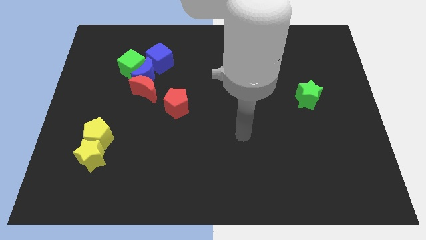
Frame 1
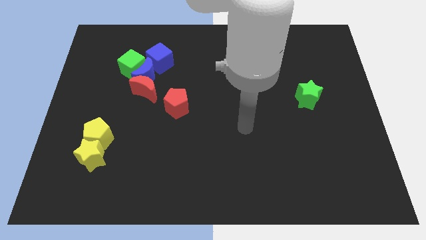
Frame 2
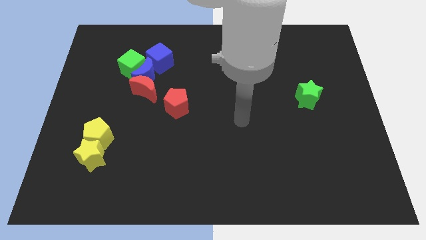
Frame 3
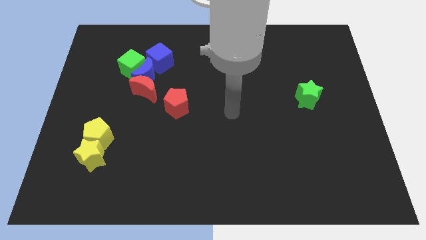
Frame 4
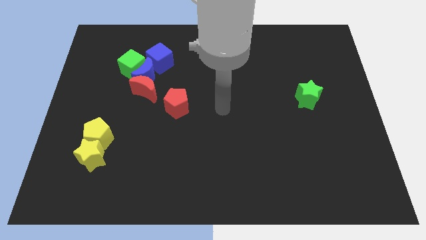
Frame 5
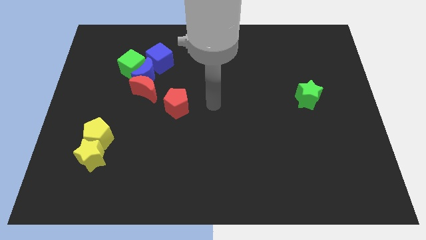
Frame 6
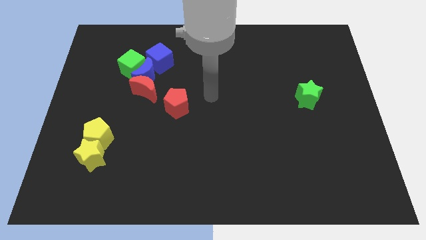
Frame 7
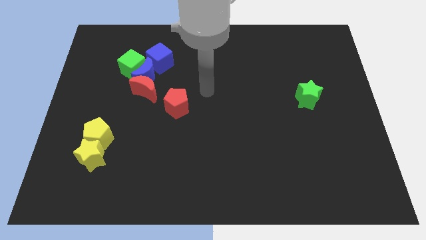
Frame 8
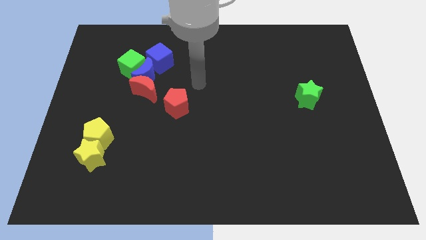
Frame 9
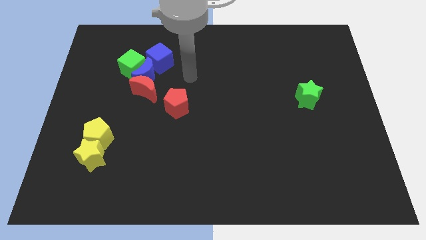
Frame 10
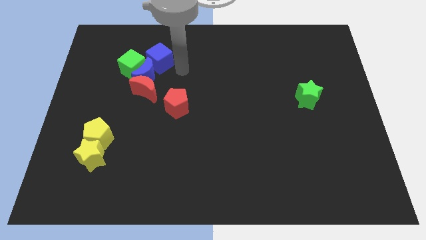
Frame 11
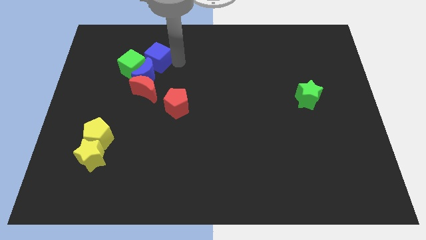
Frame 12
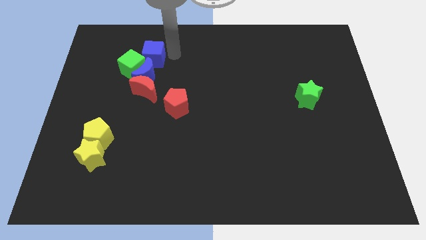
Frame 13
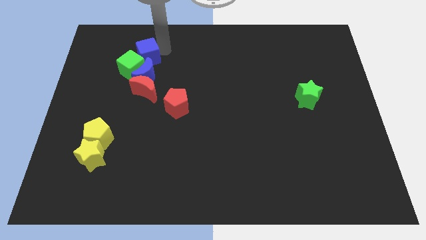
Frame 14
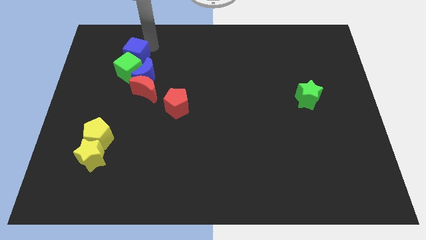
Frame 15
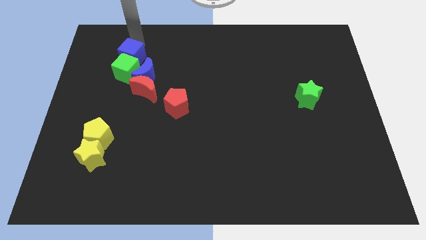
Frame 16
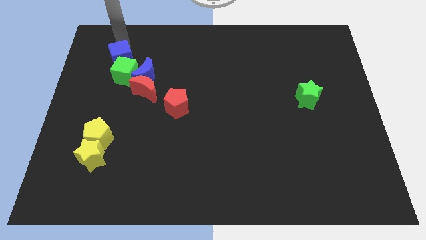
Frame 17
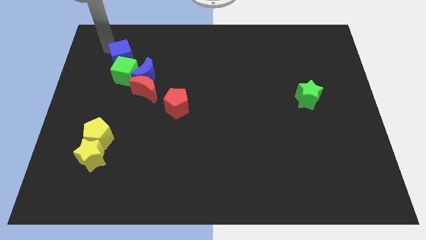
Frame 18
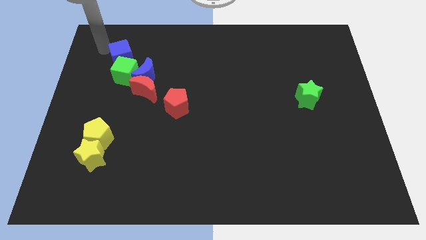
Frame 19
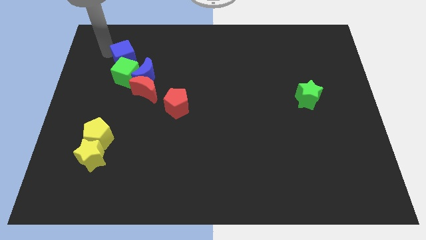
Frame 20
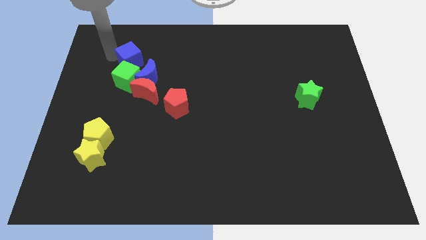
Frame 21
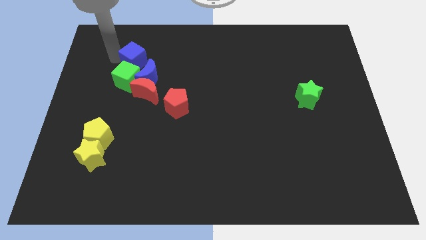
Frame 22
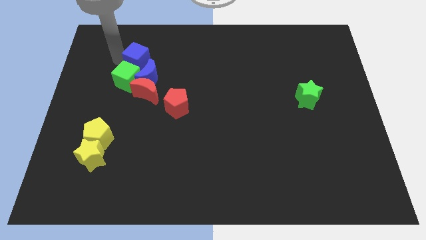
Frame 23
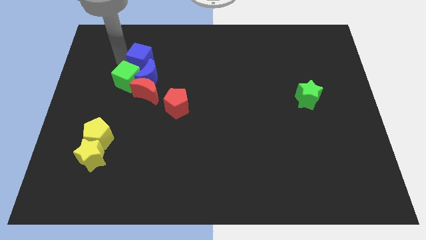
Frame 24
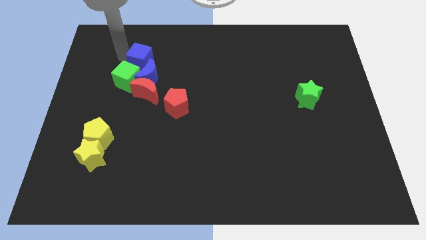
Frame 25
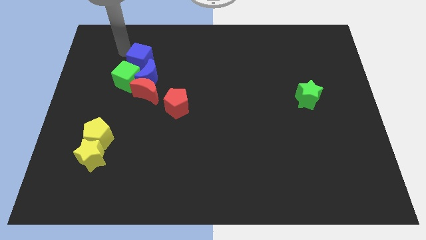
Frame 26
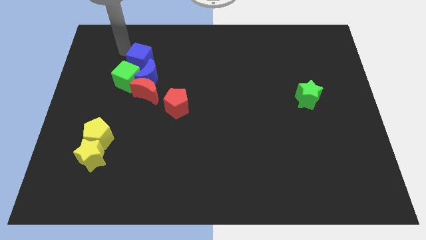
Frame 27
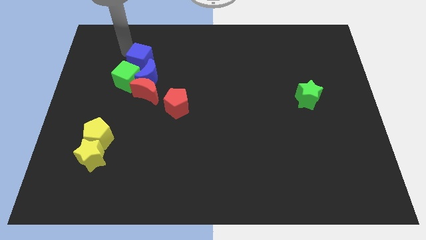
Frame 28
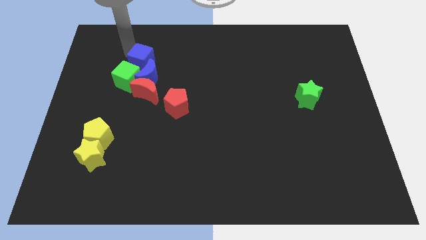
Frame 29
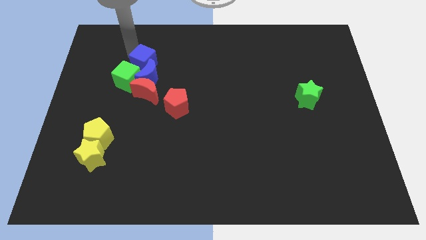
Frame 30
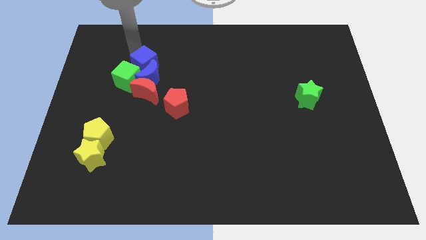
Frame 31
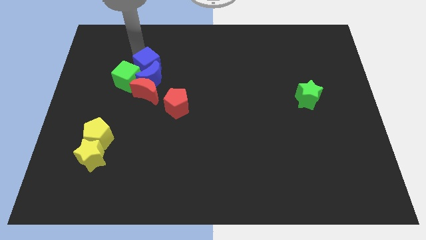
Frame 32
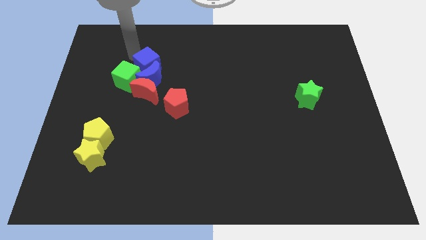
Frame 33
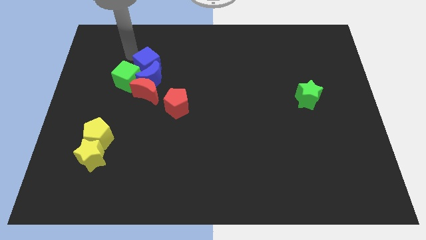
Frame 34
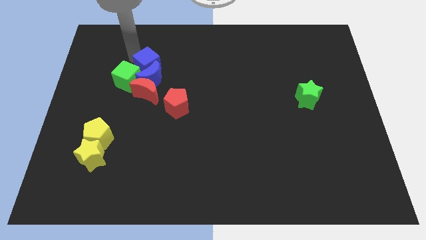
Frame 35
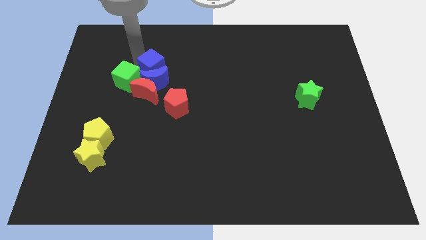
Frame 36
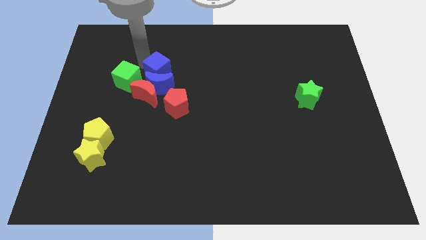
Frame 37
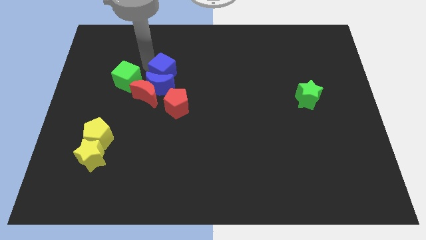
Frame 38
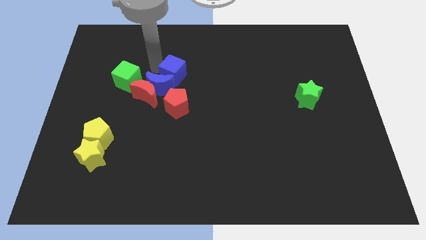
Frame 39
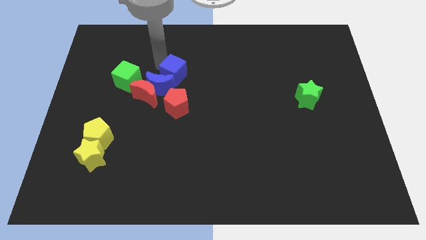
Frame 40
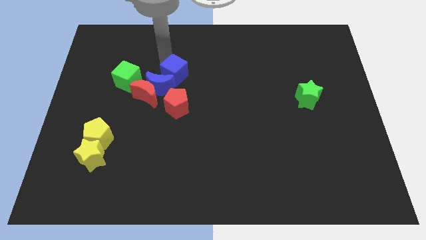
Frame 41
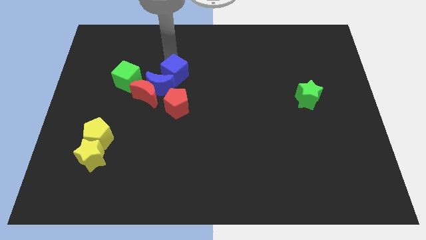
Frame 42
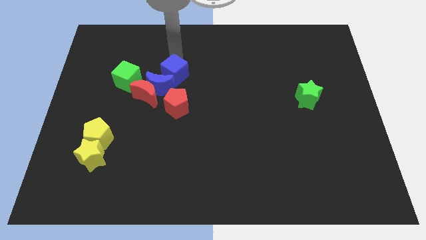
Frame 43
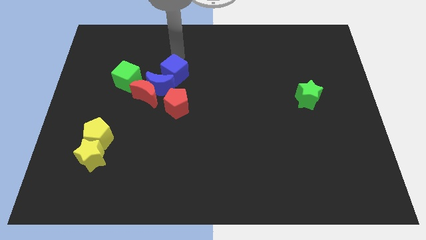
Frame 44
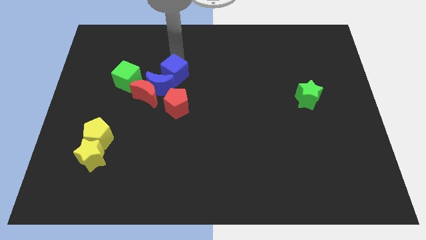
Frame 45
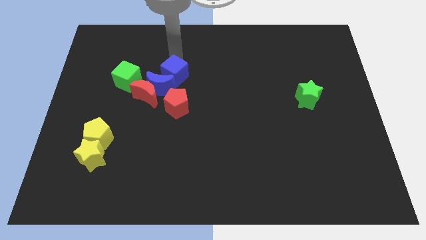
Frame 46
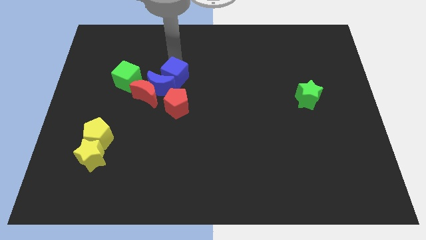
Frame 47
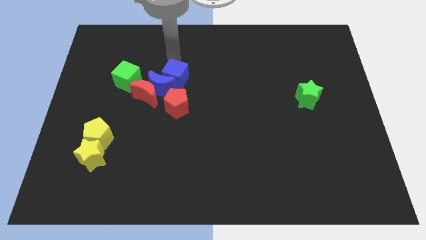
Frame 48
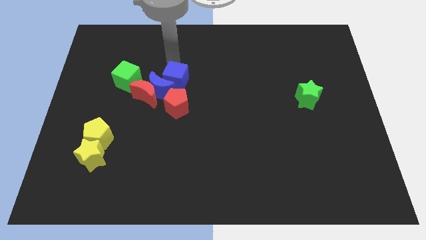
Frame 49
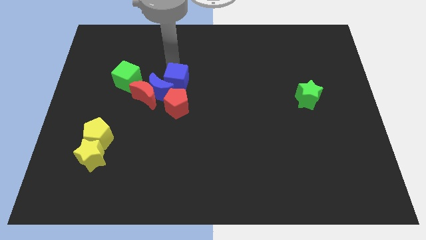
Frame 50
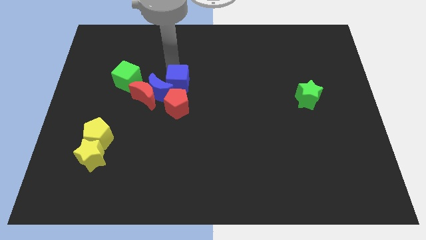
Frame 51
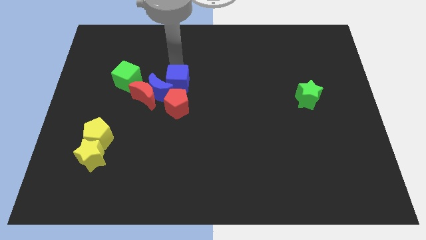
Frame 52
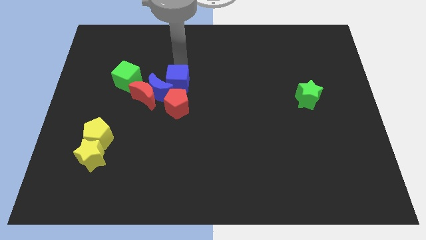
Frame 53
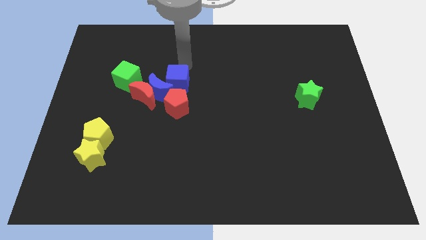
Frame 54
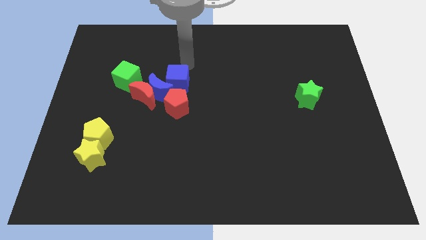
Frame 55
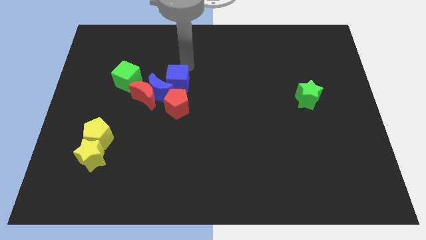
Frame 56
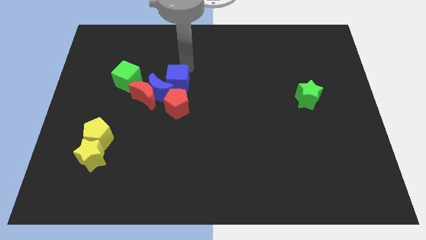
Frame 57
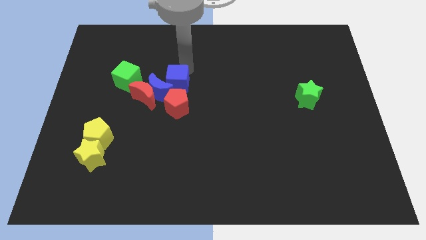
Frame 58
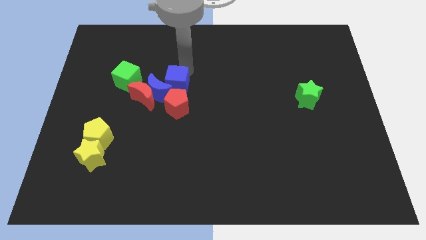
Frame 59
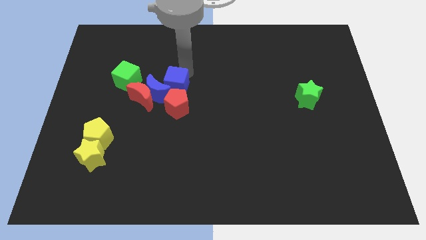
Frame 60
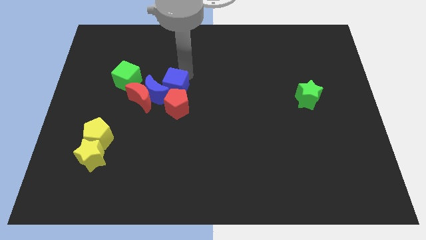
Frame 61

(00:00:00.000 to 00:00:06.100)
put the blue cube close to the red pentagon

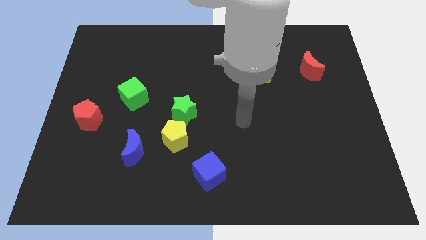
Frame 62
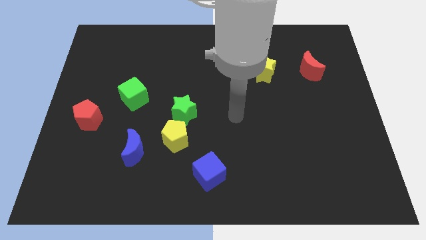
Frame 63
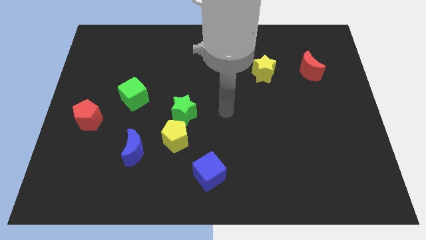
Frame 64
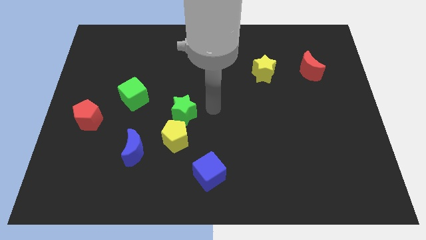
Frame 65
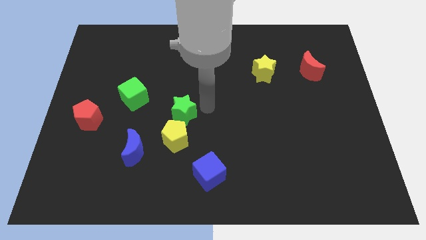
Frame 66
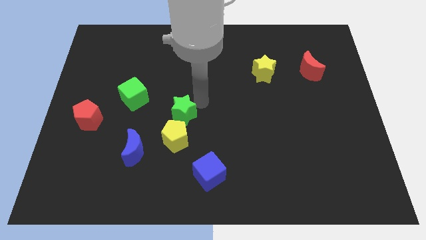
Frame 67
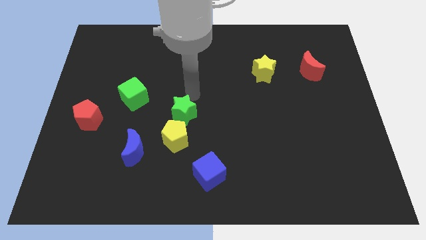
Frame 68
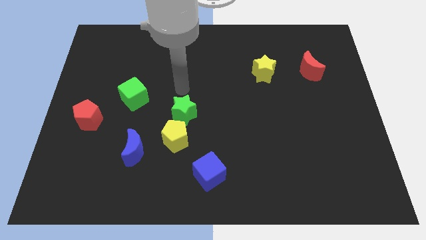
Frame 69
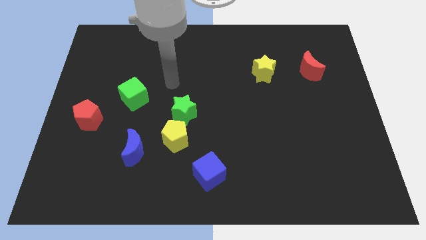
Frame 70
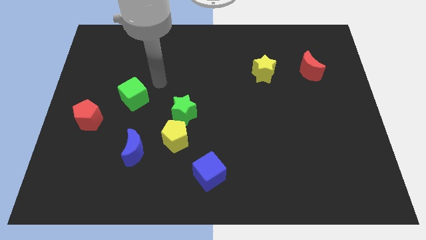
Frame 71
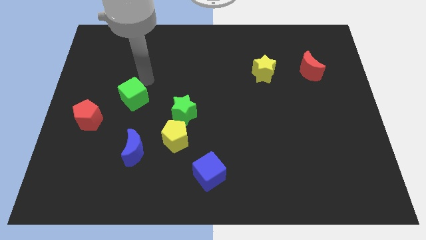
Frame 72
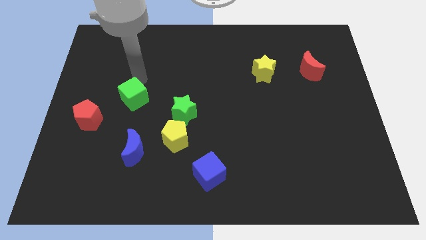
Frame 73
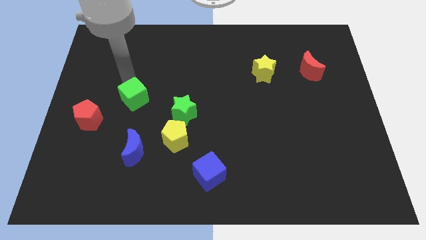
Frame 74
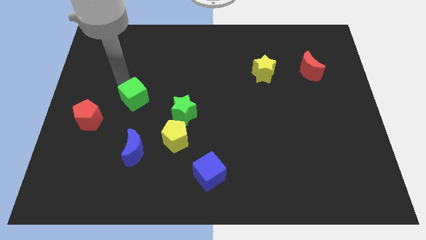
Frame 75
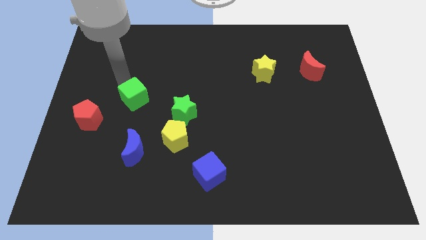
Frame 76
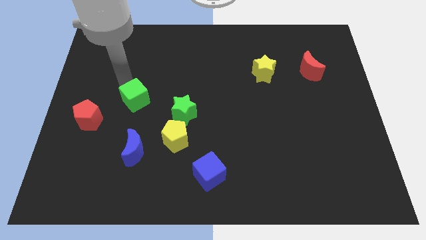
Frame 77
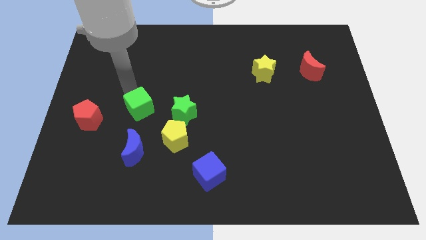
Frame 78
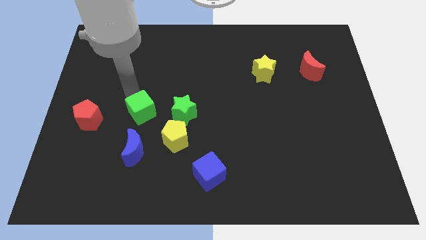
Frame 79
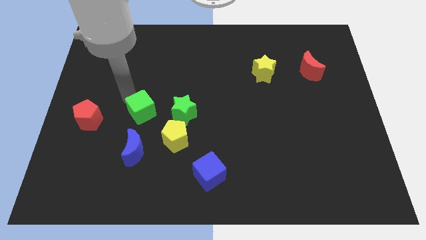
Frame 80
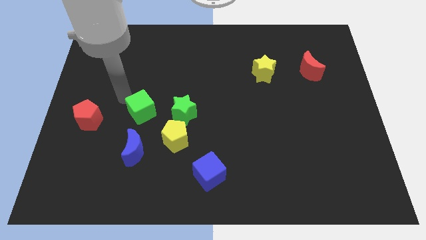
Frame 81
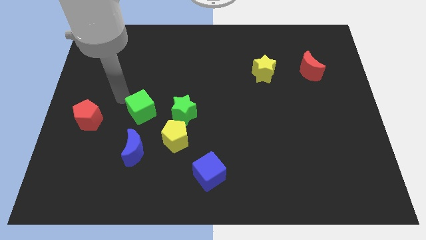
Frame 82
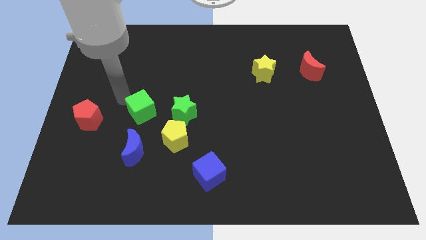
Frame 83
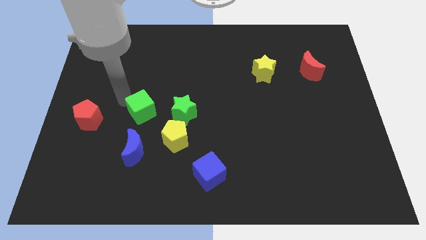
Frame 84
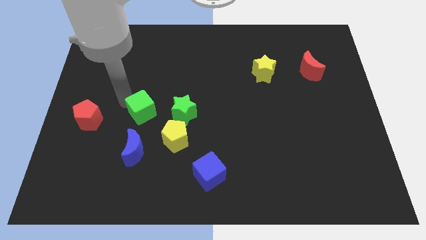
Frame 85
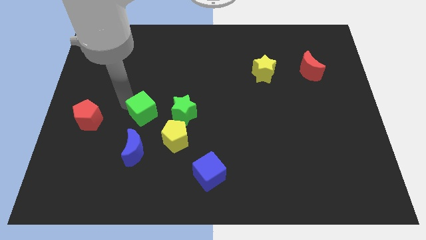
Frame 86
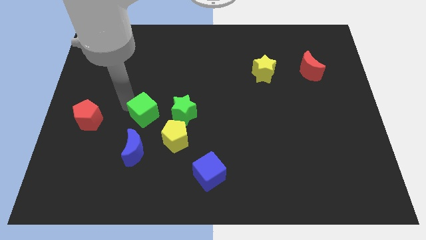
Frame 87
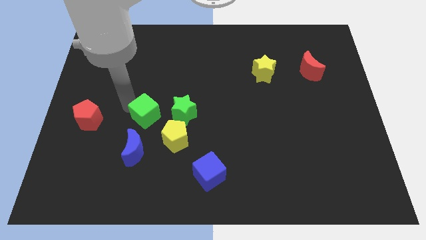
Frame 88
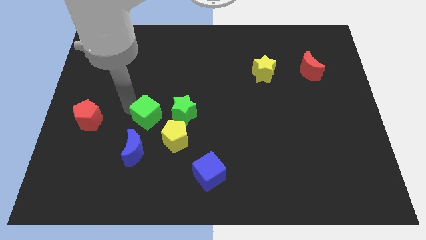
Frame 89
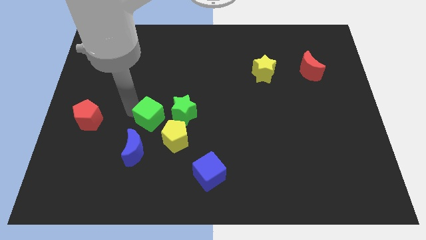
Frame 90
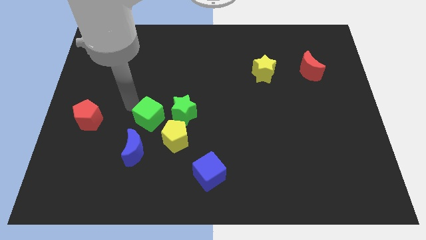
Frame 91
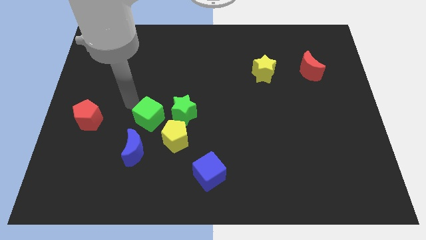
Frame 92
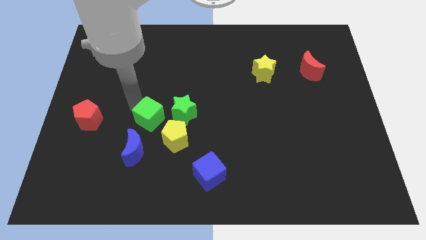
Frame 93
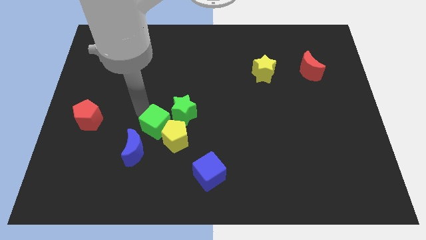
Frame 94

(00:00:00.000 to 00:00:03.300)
slide the green cube close to the yellow pentagon
